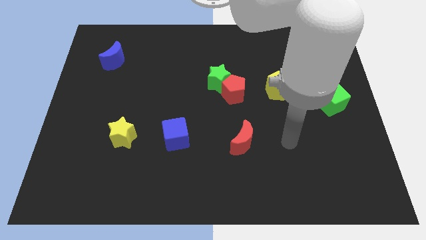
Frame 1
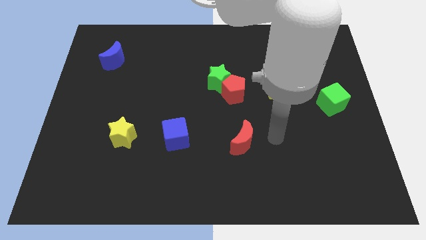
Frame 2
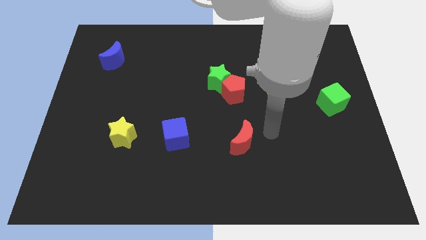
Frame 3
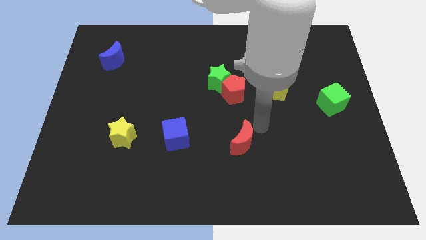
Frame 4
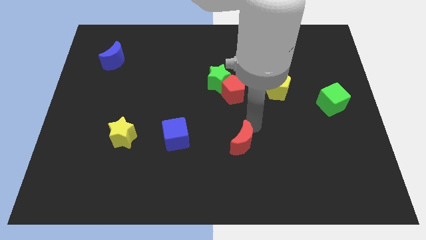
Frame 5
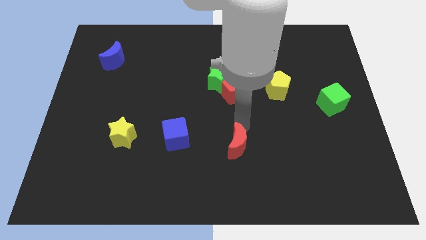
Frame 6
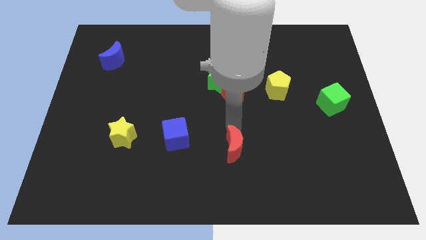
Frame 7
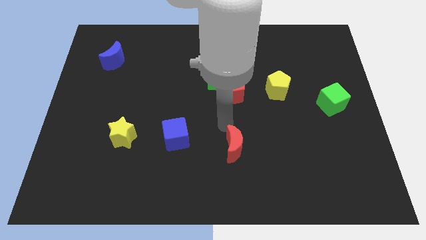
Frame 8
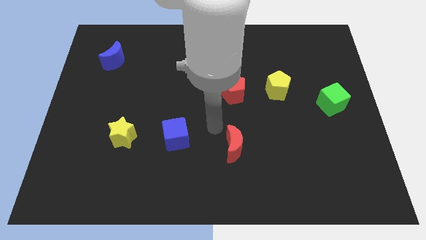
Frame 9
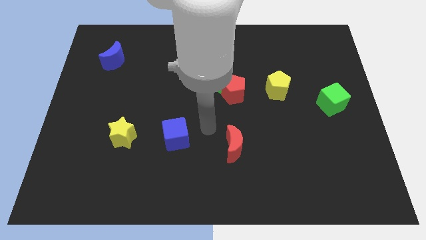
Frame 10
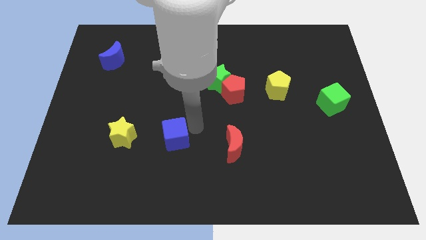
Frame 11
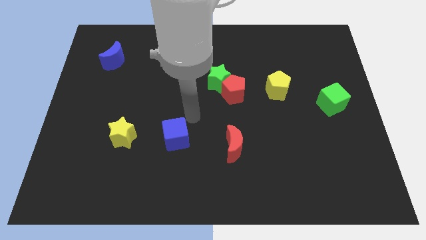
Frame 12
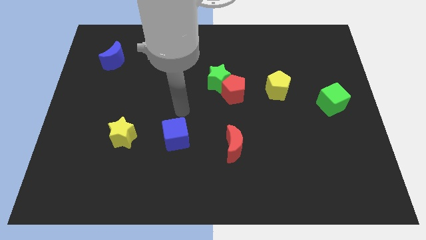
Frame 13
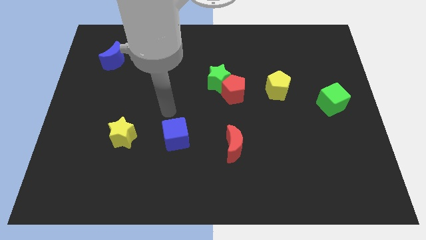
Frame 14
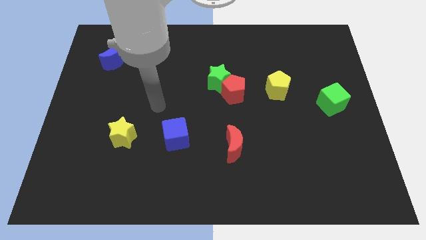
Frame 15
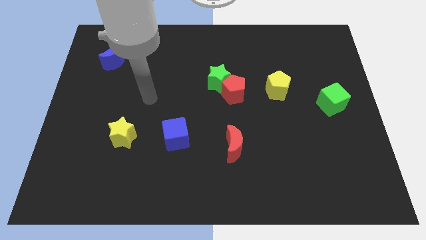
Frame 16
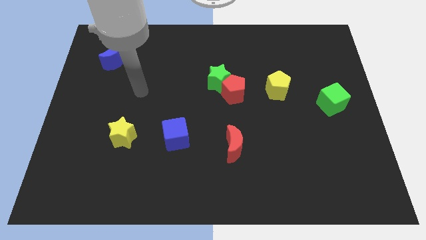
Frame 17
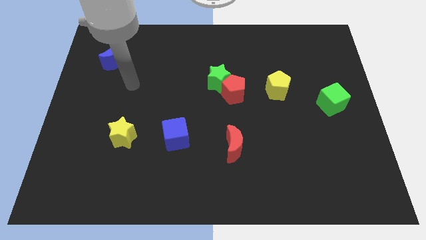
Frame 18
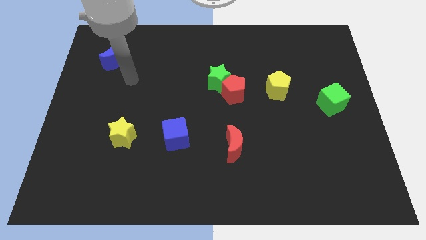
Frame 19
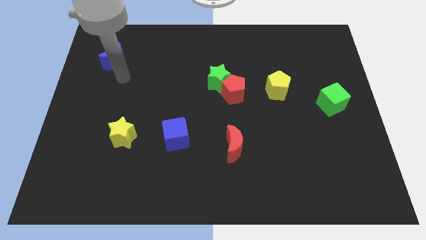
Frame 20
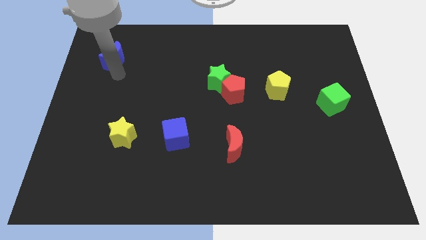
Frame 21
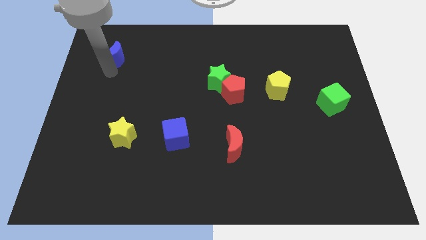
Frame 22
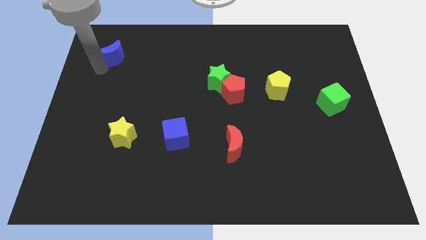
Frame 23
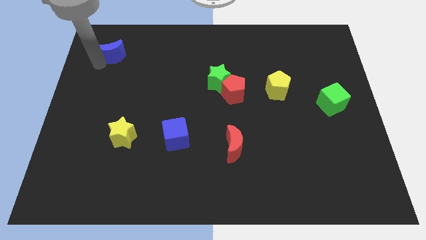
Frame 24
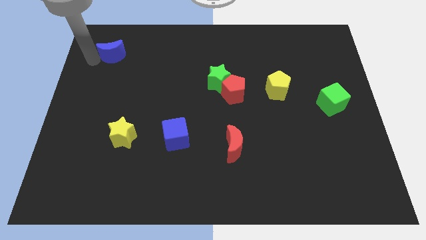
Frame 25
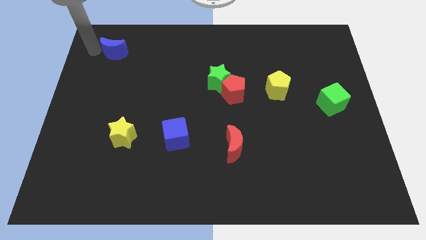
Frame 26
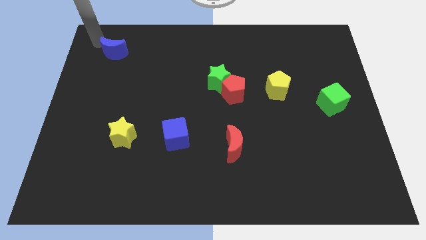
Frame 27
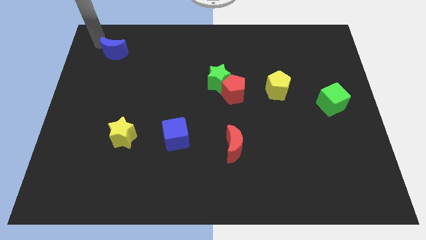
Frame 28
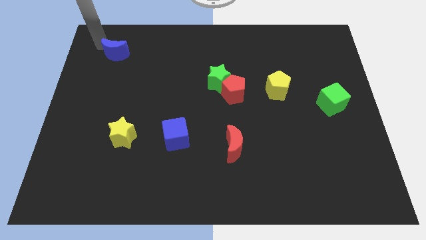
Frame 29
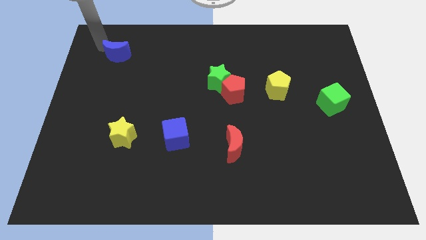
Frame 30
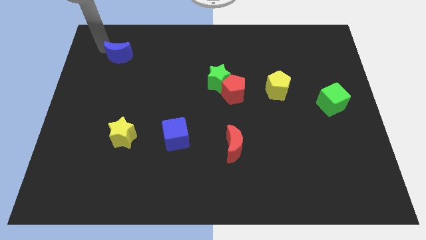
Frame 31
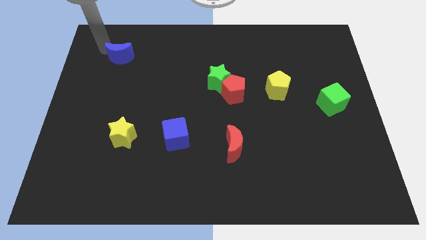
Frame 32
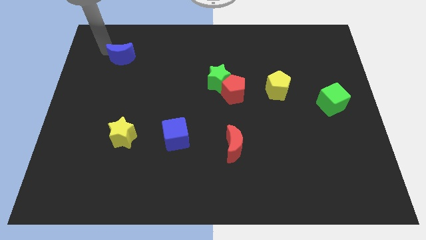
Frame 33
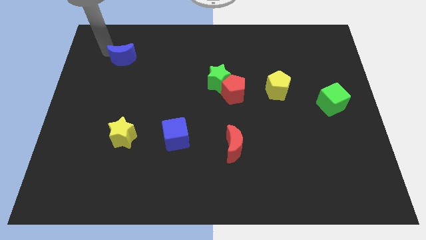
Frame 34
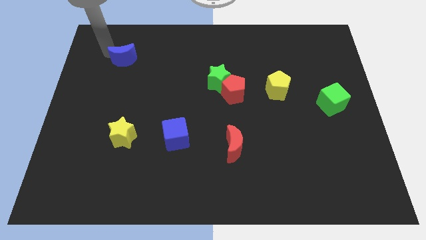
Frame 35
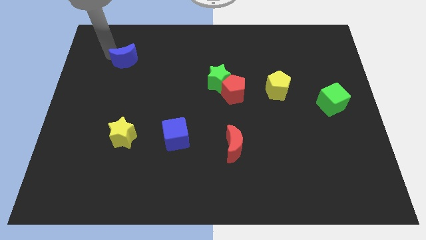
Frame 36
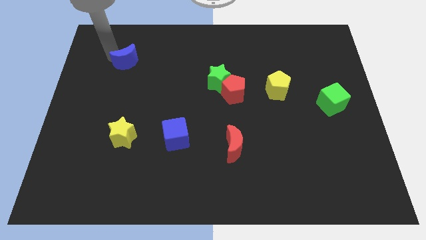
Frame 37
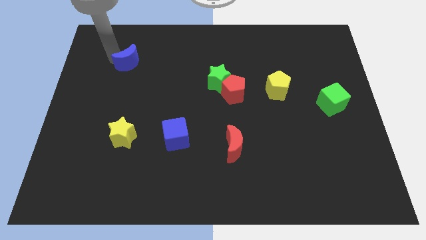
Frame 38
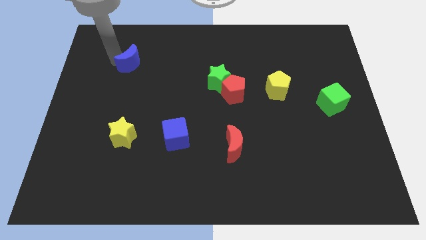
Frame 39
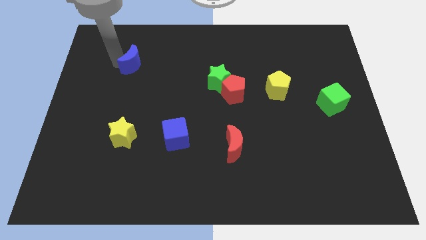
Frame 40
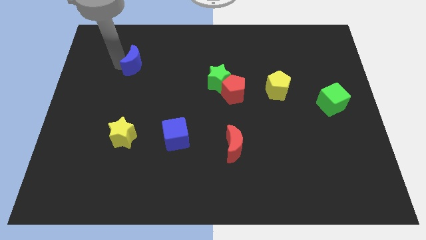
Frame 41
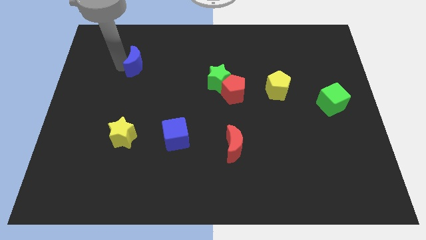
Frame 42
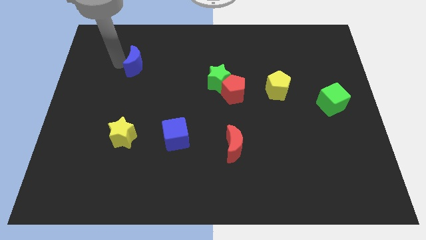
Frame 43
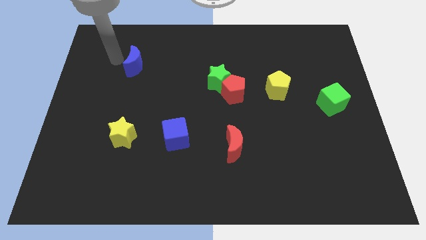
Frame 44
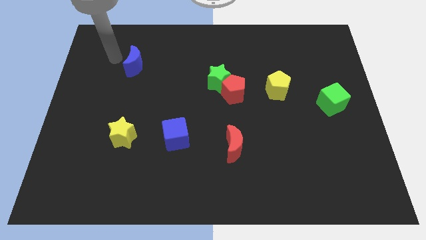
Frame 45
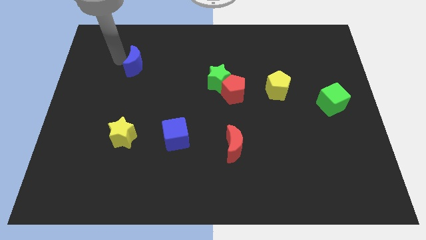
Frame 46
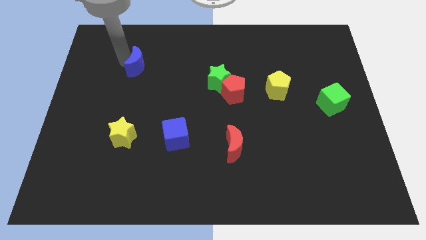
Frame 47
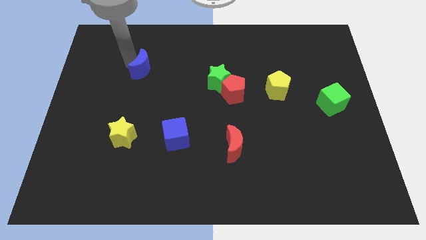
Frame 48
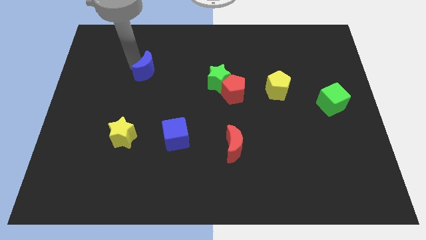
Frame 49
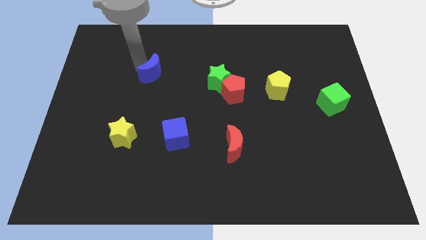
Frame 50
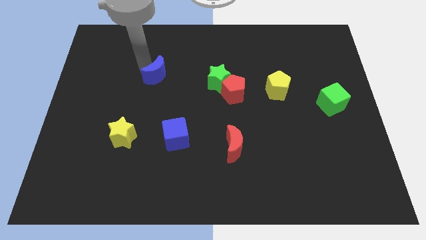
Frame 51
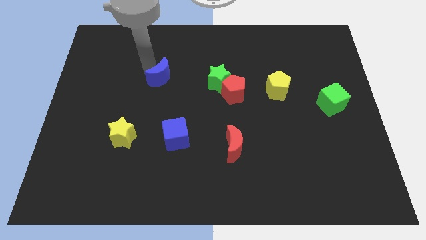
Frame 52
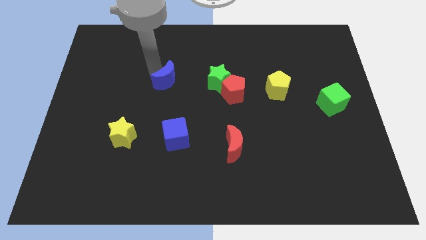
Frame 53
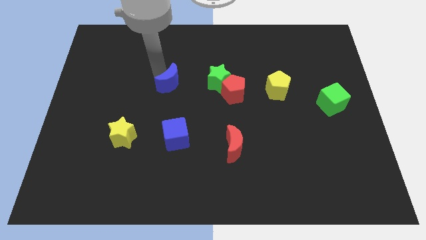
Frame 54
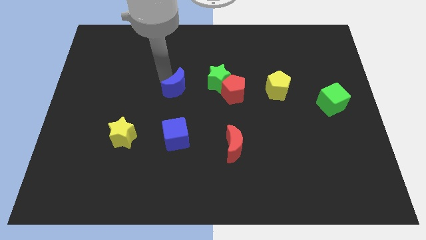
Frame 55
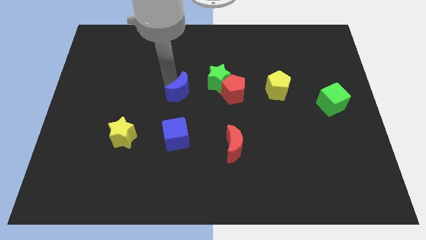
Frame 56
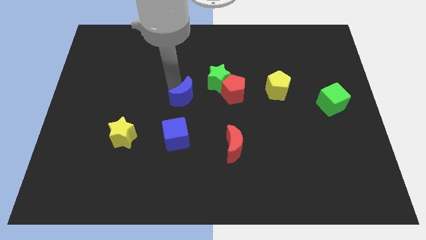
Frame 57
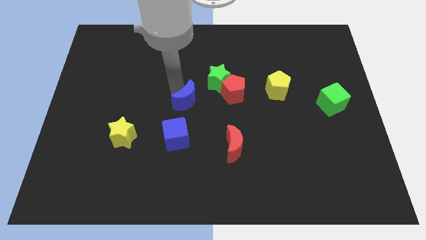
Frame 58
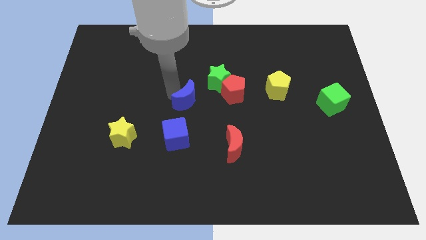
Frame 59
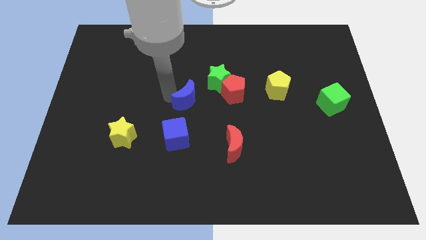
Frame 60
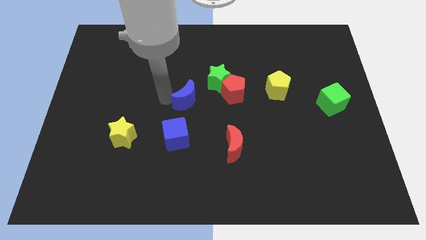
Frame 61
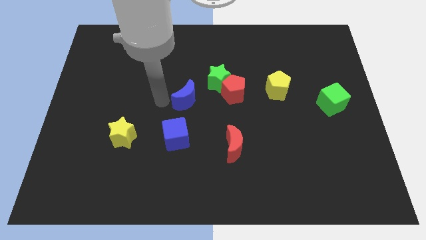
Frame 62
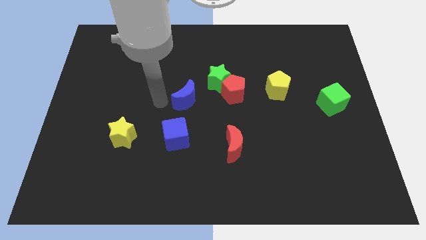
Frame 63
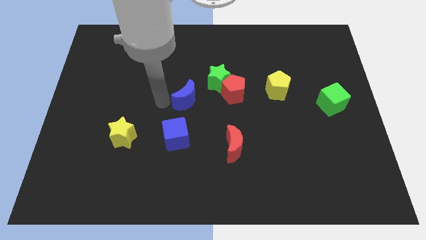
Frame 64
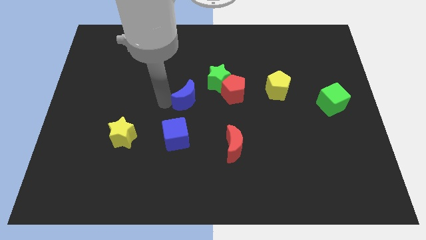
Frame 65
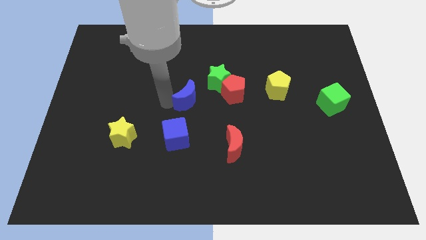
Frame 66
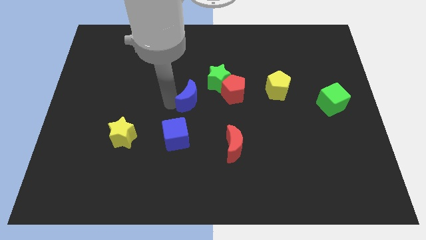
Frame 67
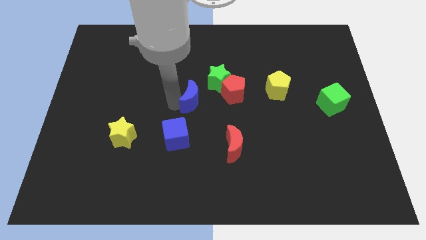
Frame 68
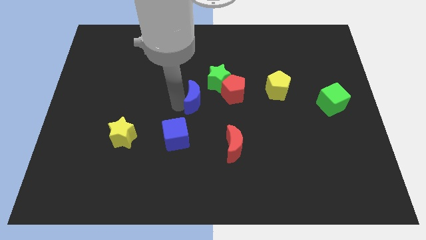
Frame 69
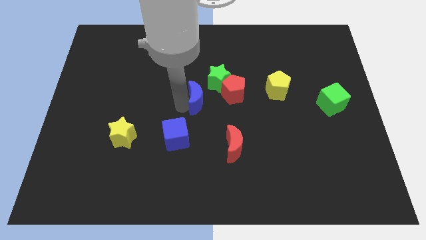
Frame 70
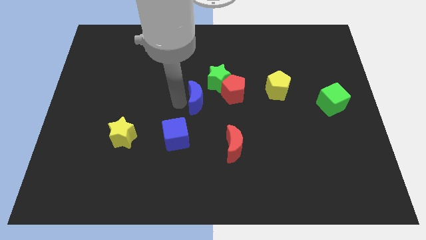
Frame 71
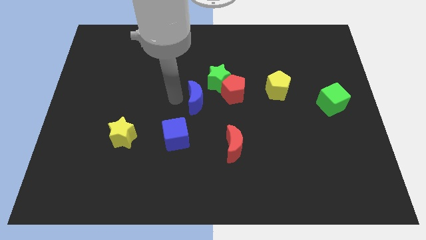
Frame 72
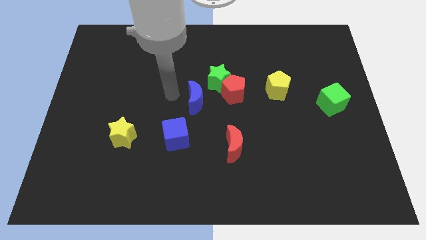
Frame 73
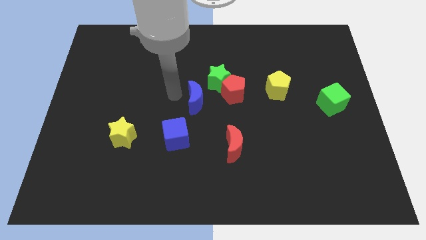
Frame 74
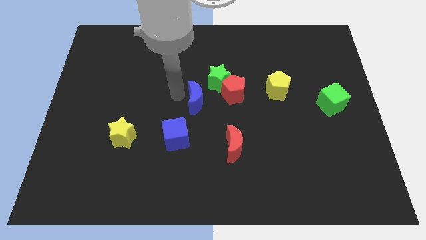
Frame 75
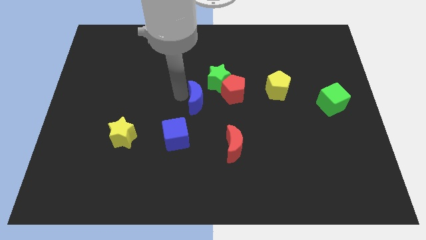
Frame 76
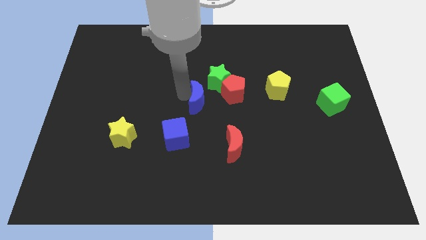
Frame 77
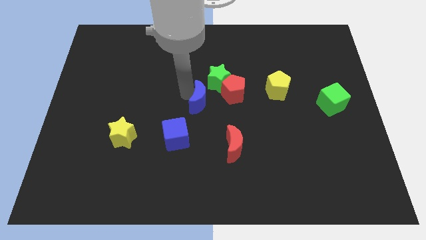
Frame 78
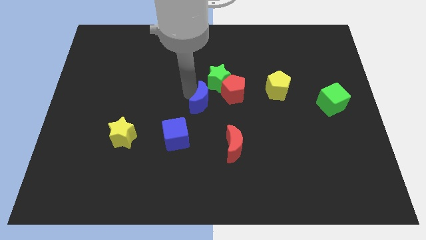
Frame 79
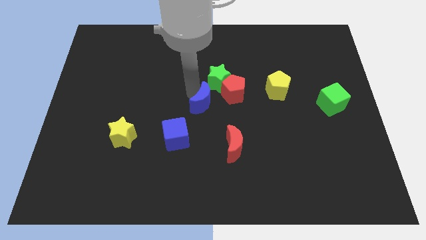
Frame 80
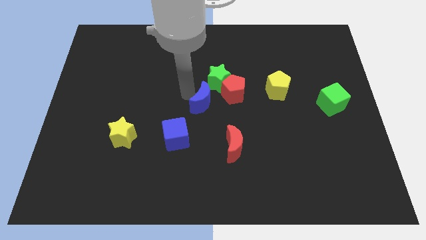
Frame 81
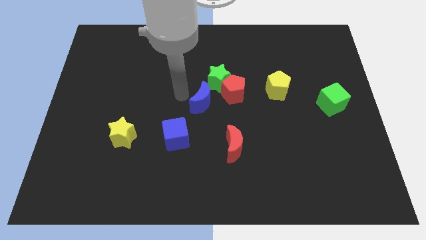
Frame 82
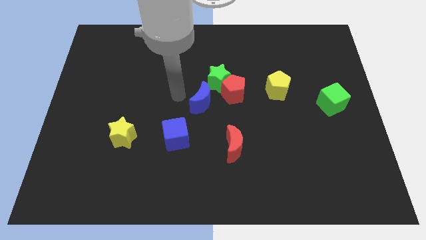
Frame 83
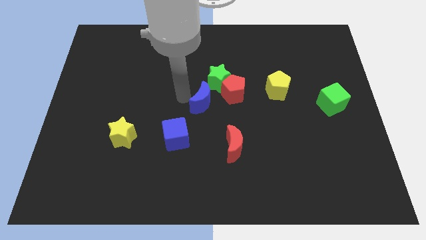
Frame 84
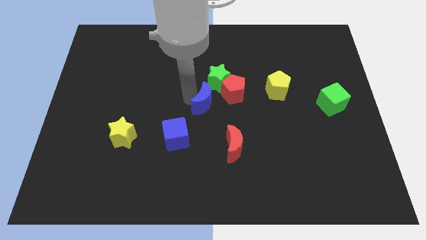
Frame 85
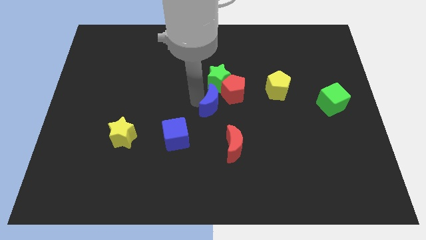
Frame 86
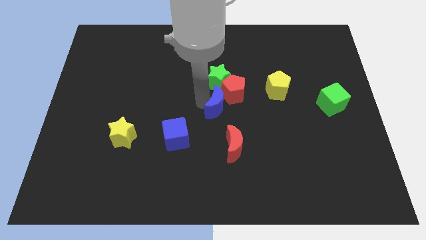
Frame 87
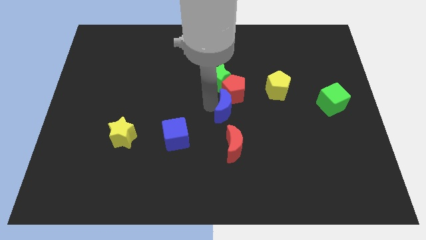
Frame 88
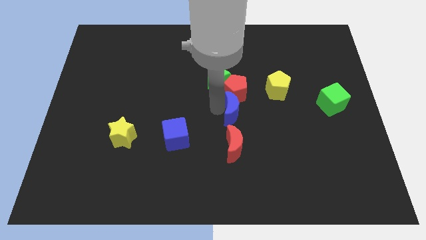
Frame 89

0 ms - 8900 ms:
push the blue moon to the bottom right side of the red pentagon
